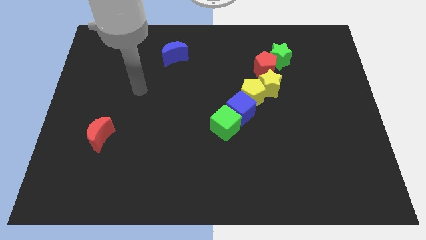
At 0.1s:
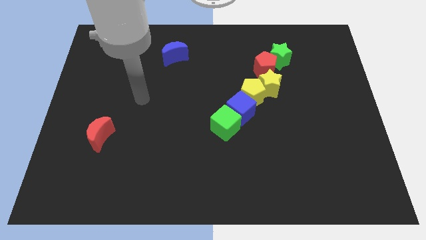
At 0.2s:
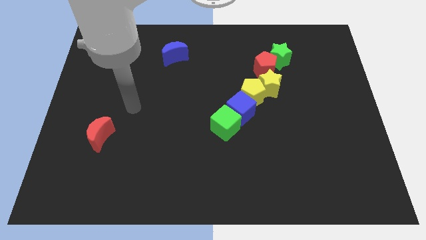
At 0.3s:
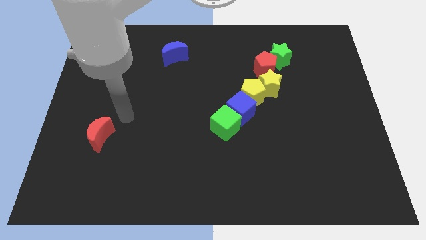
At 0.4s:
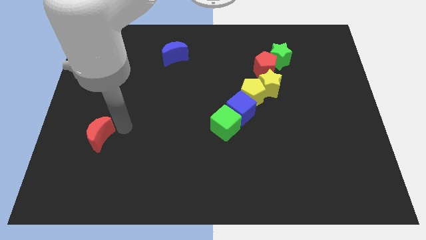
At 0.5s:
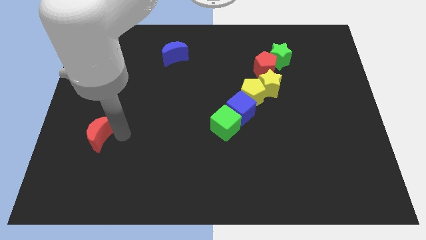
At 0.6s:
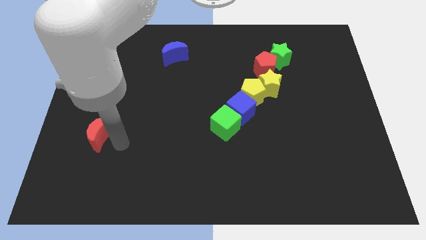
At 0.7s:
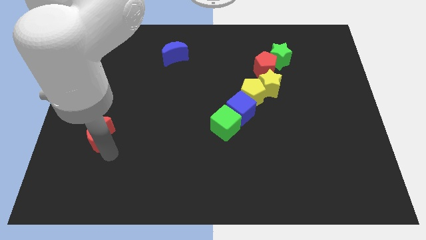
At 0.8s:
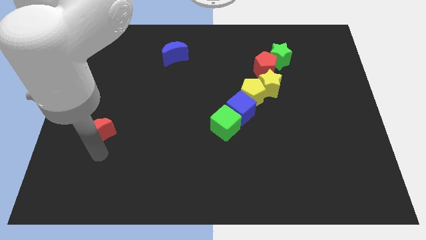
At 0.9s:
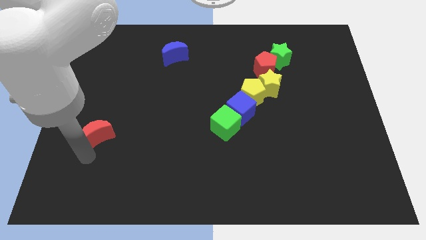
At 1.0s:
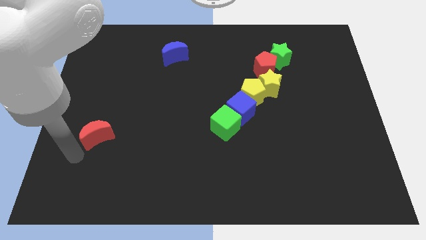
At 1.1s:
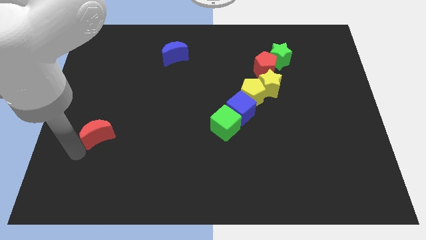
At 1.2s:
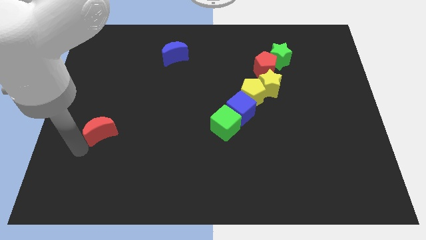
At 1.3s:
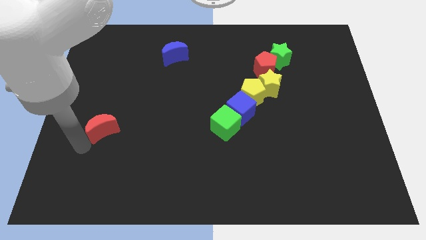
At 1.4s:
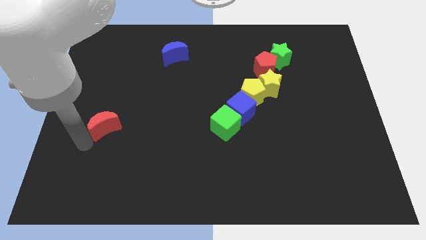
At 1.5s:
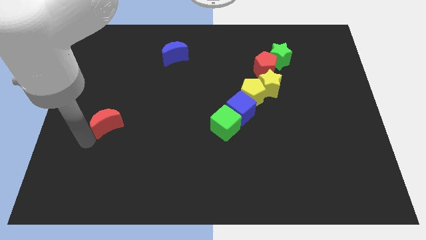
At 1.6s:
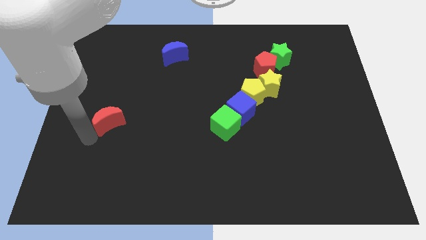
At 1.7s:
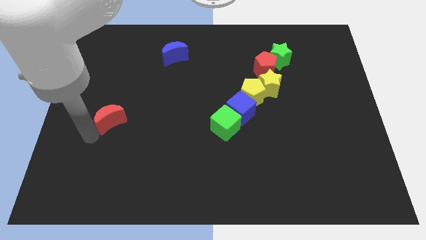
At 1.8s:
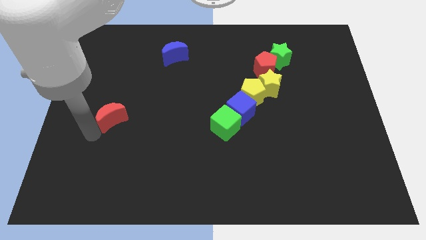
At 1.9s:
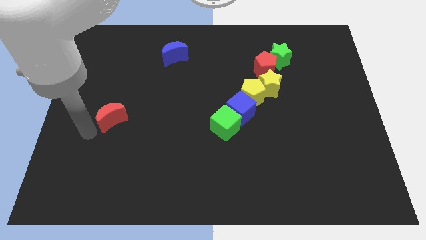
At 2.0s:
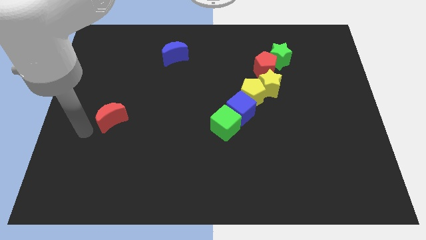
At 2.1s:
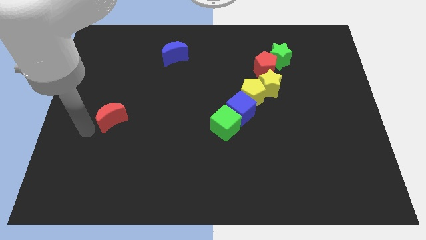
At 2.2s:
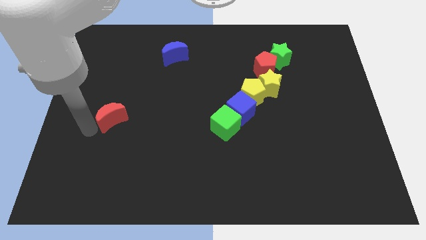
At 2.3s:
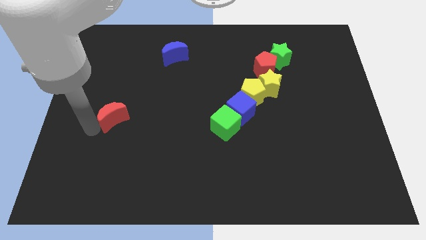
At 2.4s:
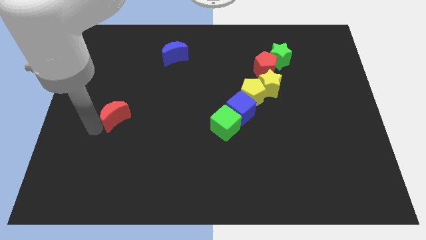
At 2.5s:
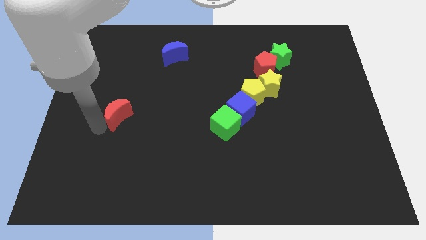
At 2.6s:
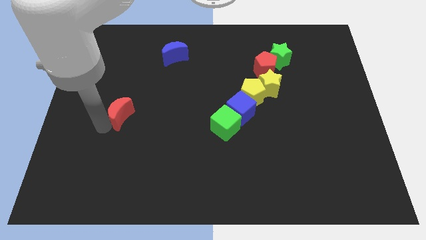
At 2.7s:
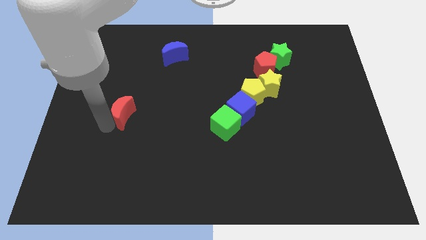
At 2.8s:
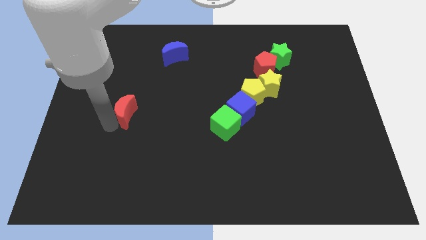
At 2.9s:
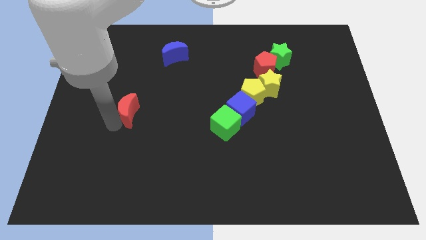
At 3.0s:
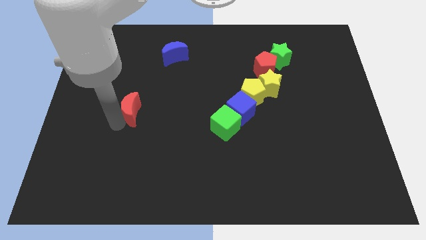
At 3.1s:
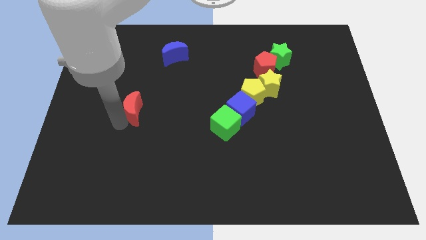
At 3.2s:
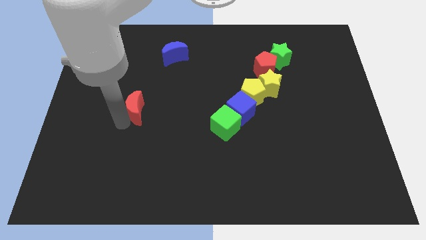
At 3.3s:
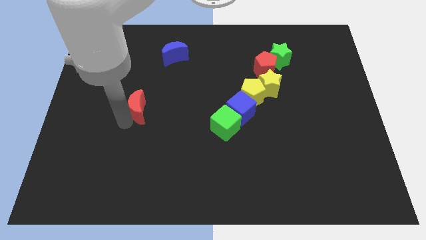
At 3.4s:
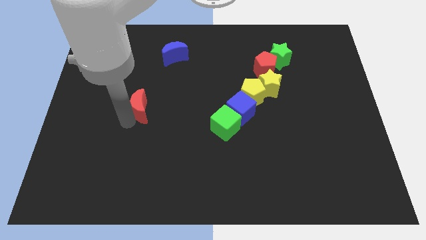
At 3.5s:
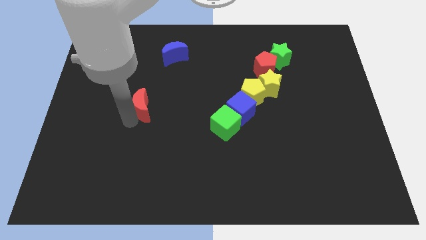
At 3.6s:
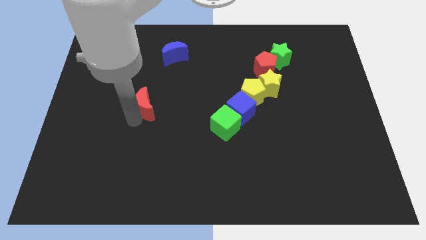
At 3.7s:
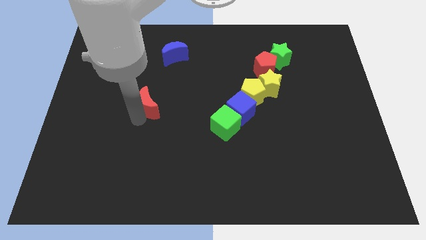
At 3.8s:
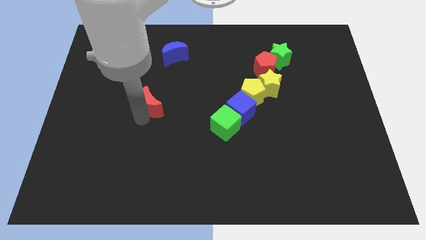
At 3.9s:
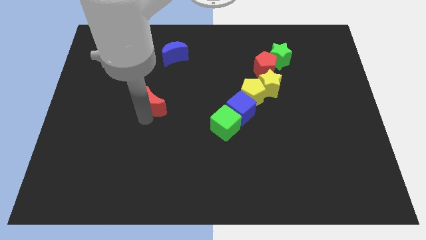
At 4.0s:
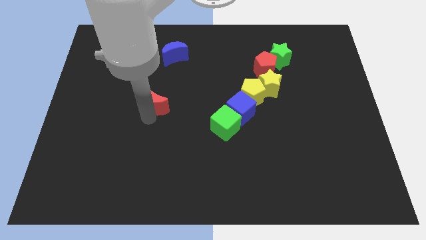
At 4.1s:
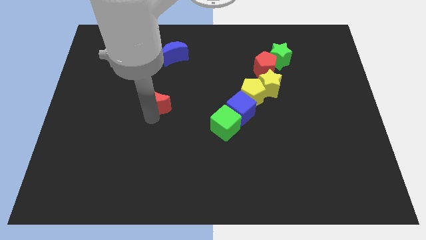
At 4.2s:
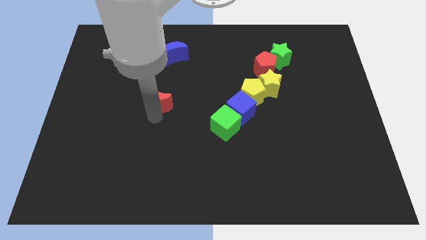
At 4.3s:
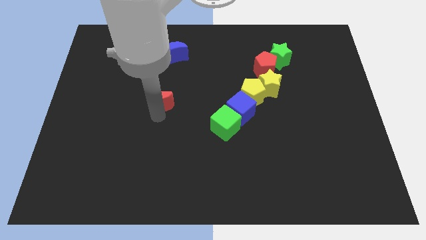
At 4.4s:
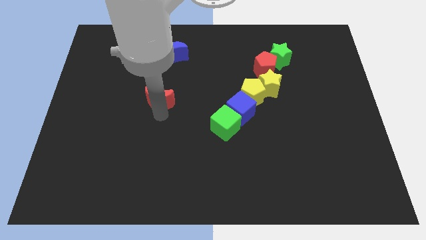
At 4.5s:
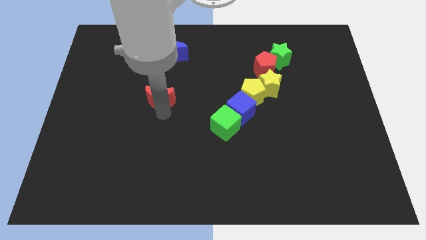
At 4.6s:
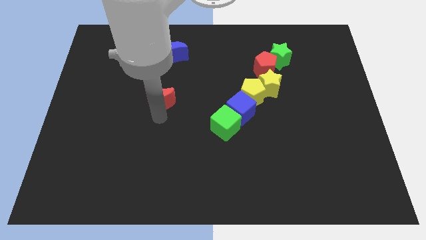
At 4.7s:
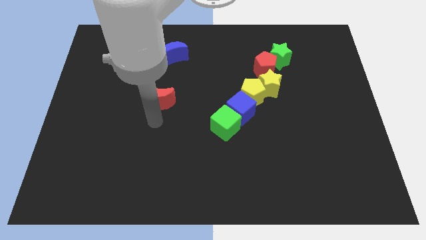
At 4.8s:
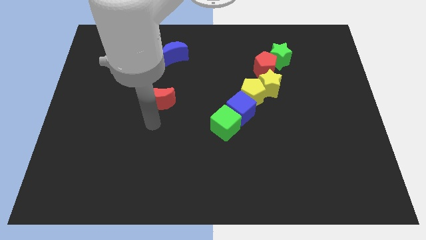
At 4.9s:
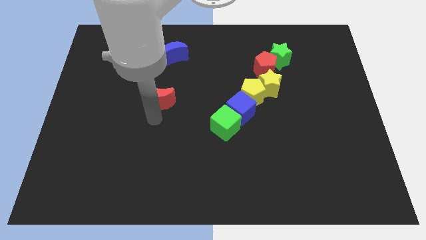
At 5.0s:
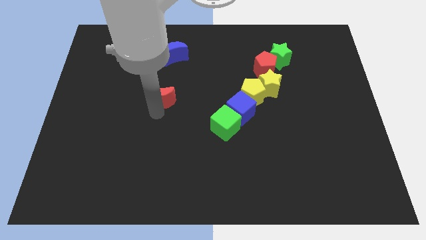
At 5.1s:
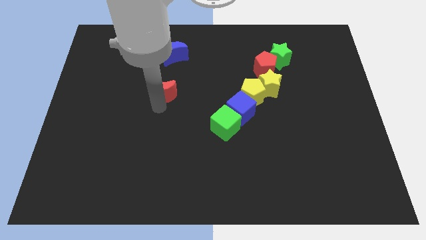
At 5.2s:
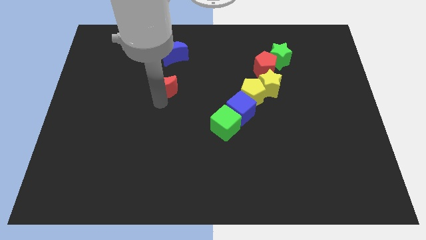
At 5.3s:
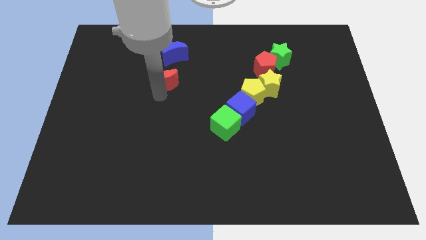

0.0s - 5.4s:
move the red moon upwards and to the right

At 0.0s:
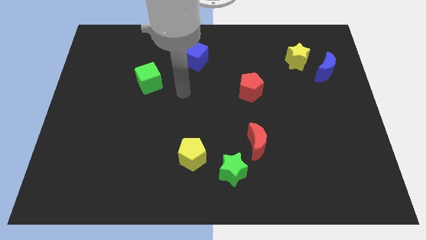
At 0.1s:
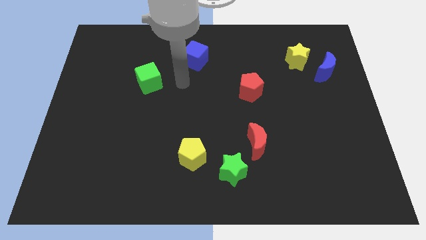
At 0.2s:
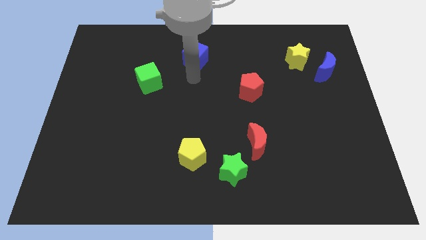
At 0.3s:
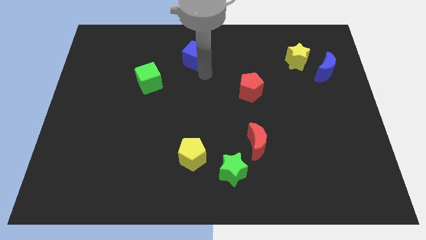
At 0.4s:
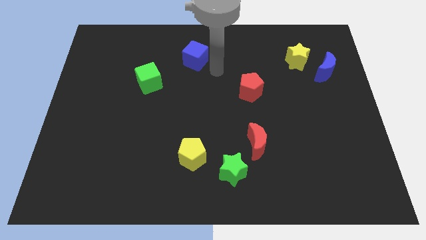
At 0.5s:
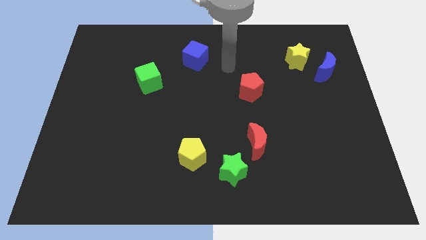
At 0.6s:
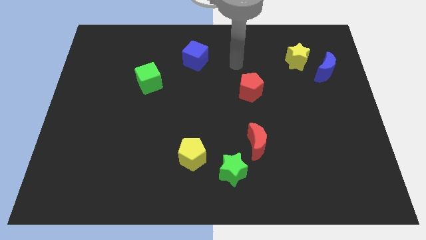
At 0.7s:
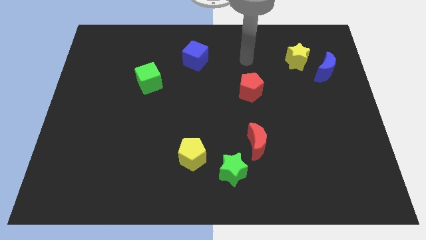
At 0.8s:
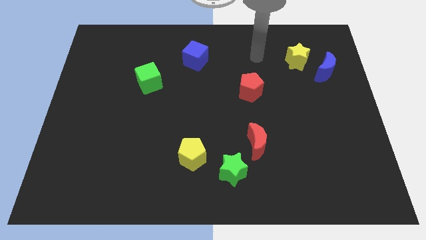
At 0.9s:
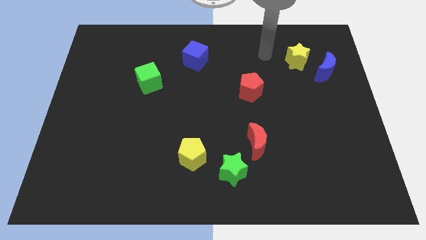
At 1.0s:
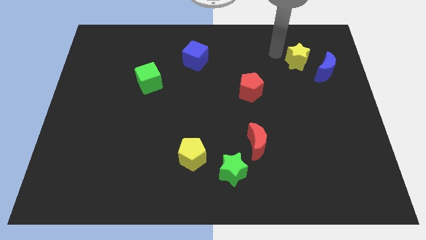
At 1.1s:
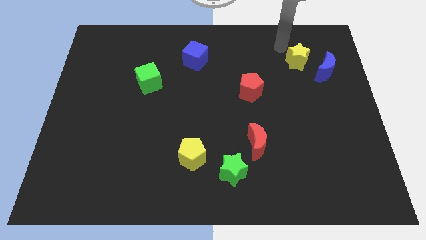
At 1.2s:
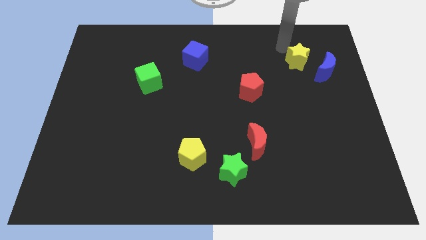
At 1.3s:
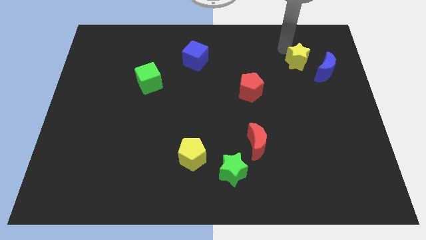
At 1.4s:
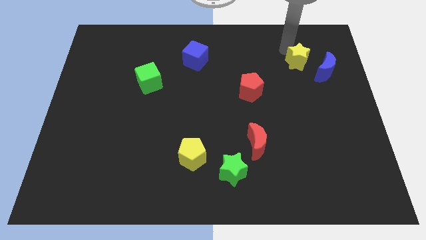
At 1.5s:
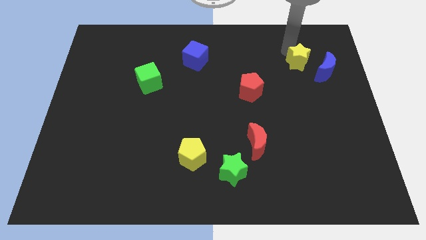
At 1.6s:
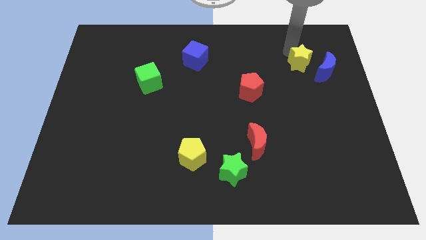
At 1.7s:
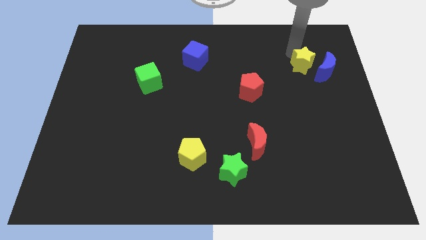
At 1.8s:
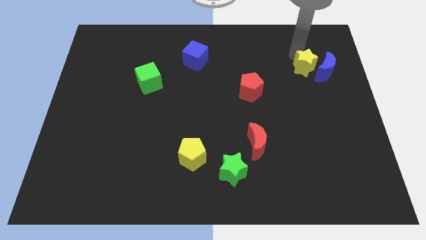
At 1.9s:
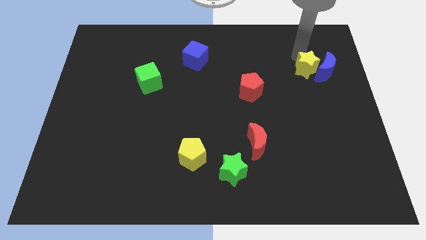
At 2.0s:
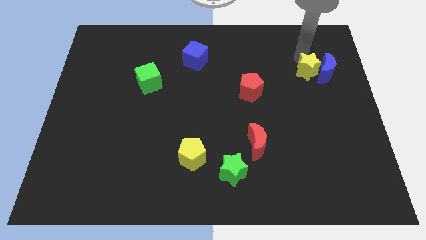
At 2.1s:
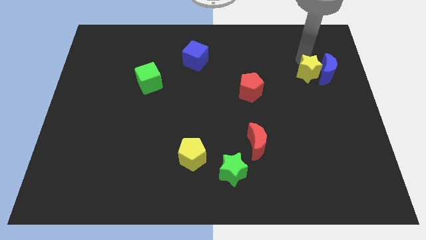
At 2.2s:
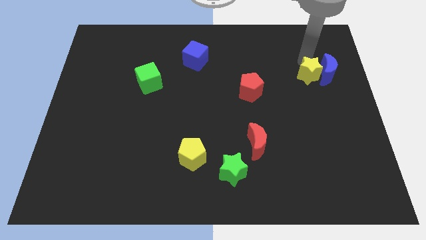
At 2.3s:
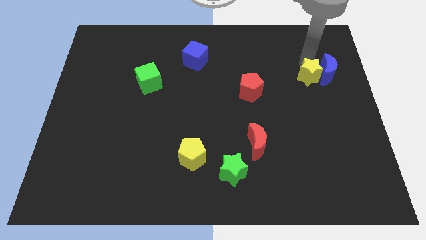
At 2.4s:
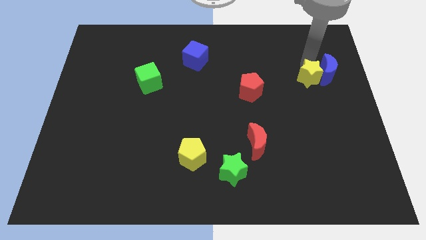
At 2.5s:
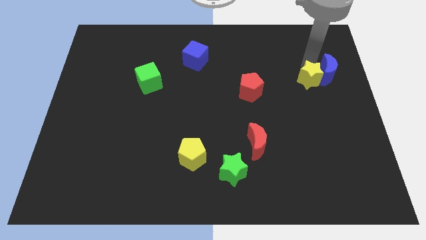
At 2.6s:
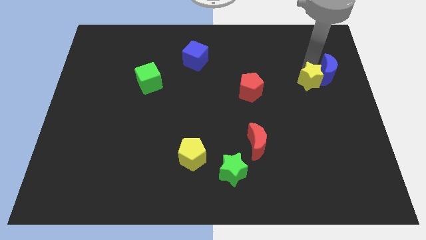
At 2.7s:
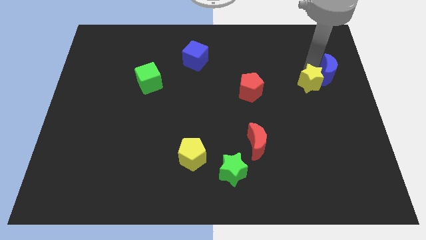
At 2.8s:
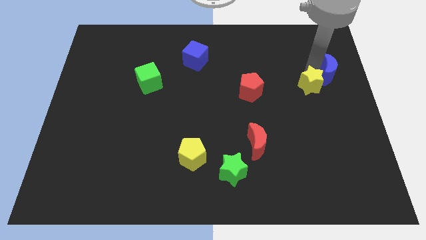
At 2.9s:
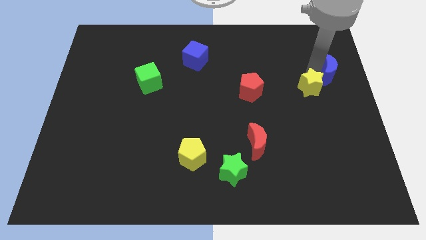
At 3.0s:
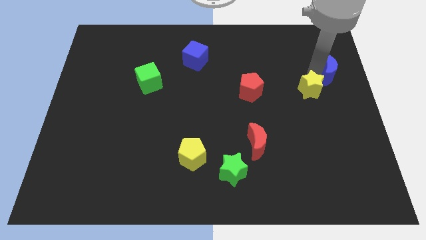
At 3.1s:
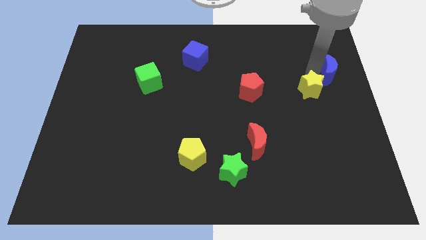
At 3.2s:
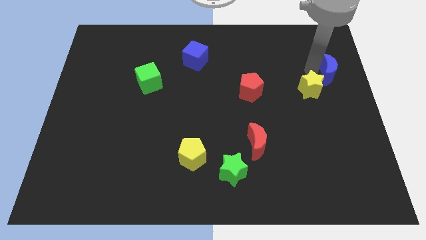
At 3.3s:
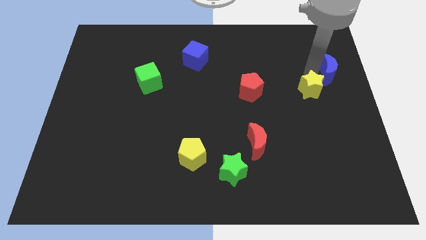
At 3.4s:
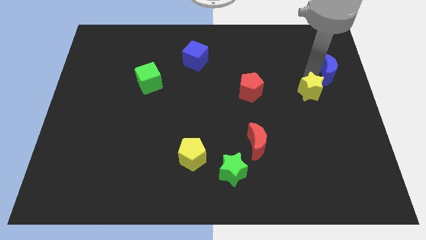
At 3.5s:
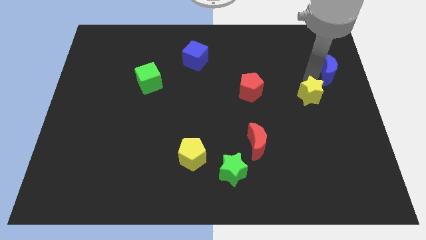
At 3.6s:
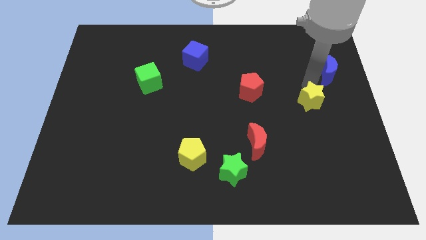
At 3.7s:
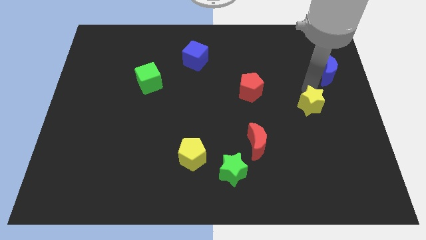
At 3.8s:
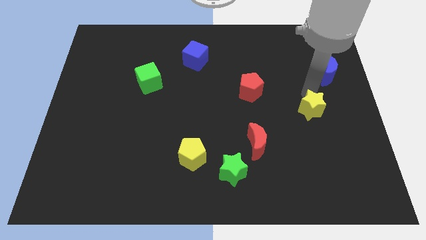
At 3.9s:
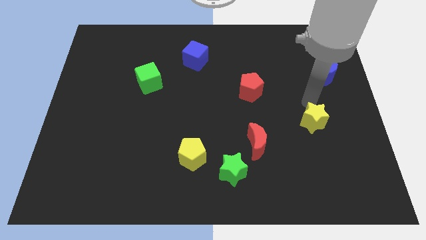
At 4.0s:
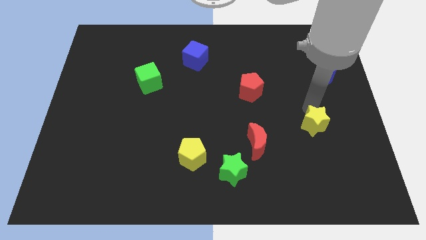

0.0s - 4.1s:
push the yellow star down
